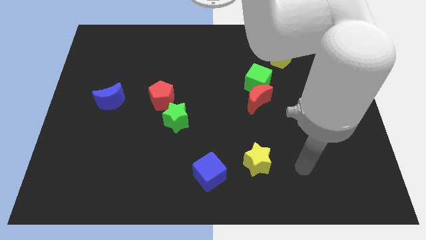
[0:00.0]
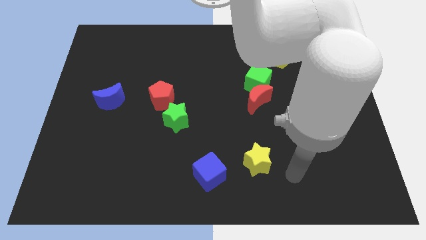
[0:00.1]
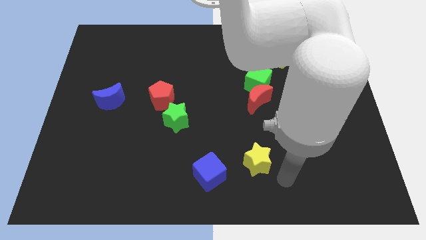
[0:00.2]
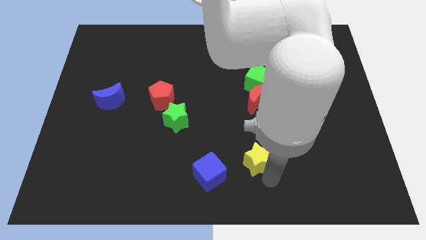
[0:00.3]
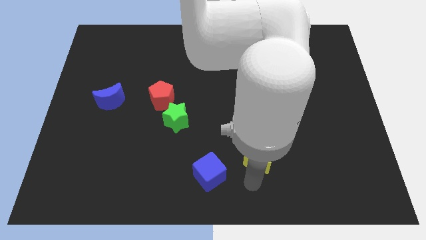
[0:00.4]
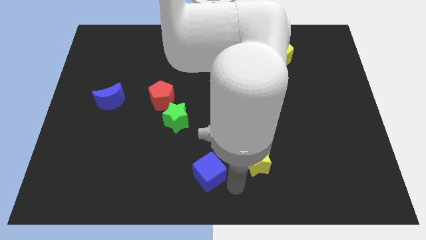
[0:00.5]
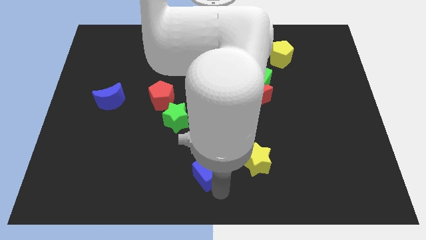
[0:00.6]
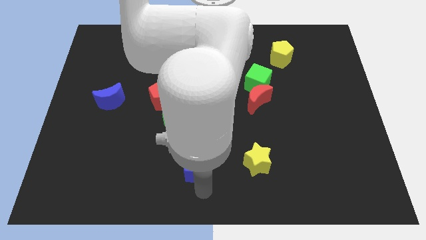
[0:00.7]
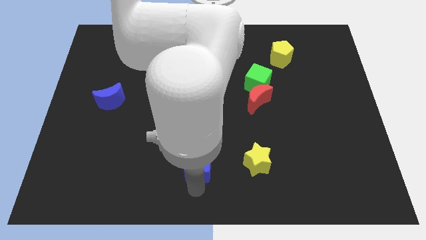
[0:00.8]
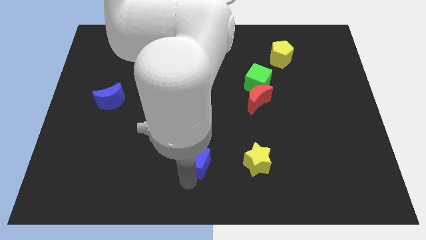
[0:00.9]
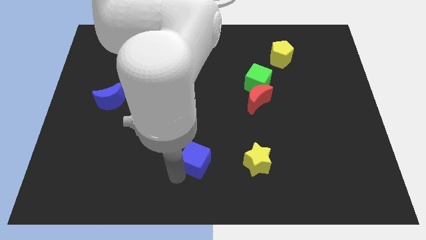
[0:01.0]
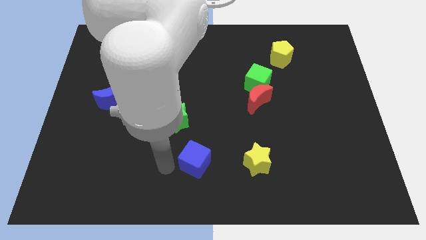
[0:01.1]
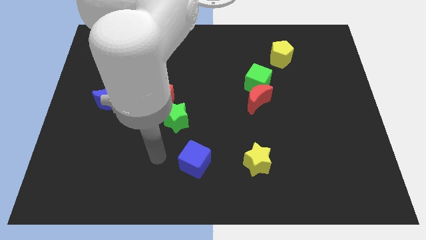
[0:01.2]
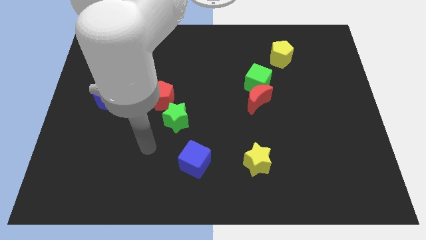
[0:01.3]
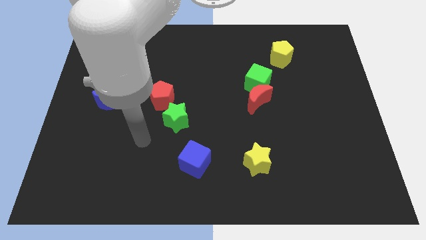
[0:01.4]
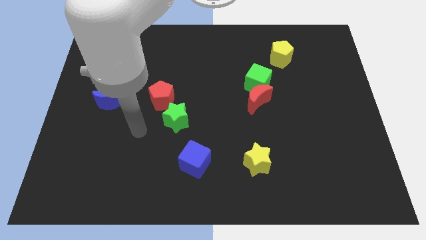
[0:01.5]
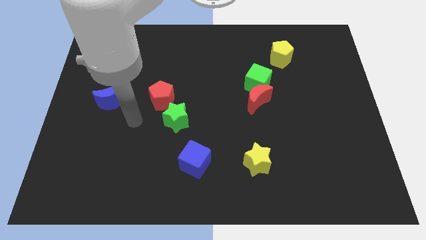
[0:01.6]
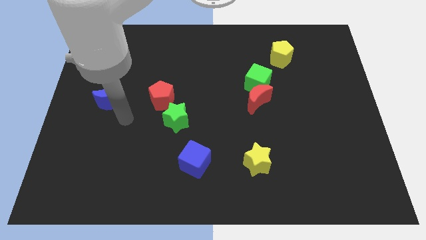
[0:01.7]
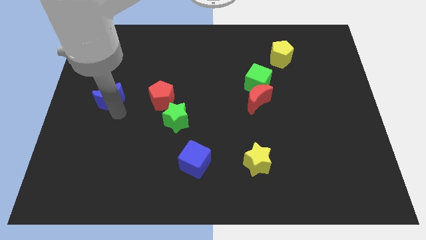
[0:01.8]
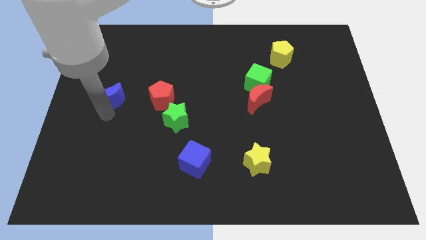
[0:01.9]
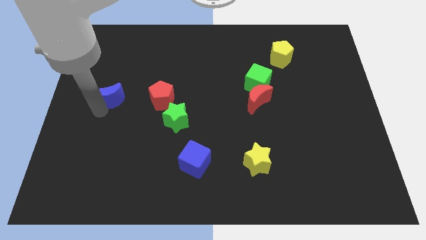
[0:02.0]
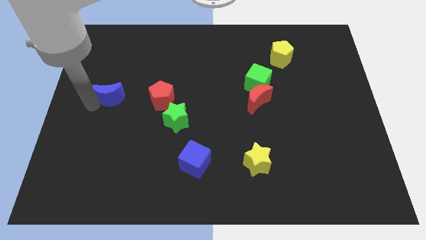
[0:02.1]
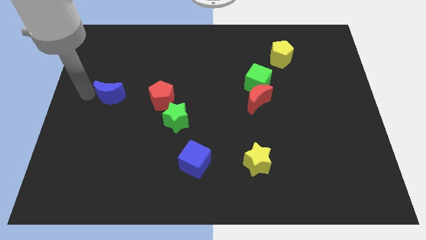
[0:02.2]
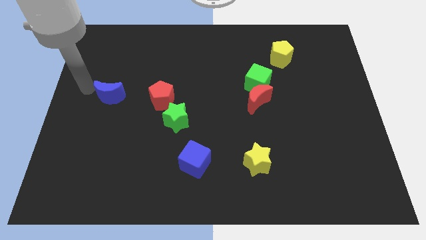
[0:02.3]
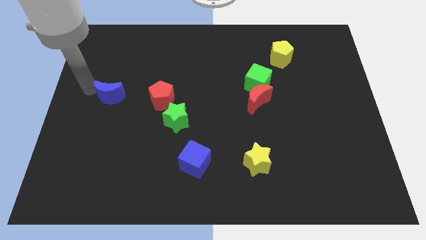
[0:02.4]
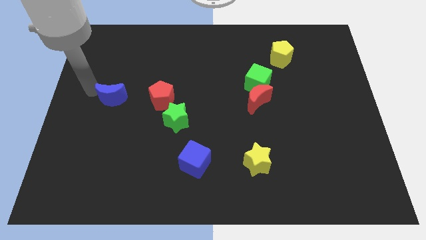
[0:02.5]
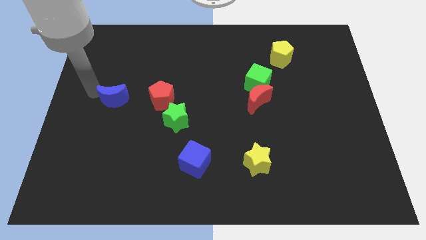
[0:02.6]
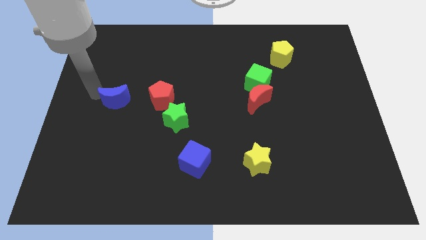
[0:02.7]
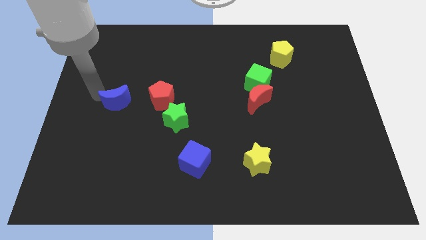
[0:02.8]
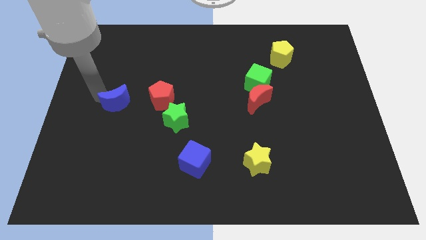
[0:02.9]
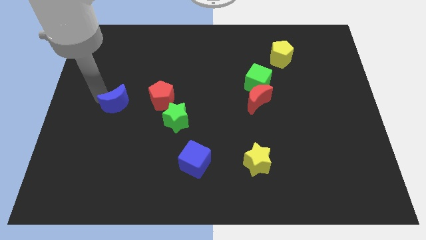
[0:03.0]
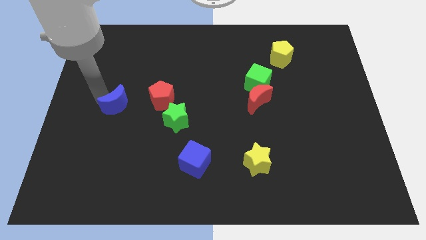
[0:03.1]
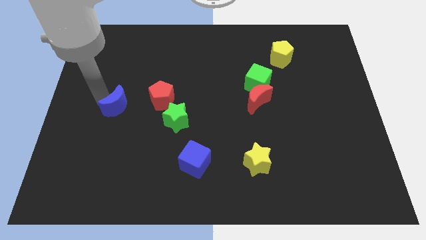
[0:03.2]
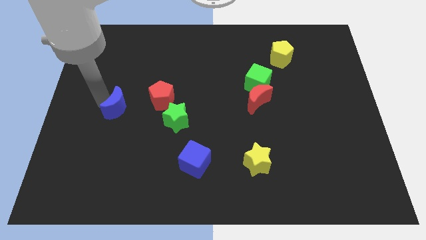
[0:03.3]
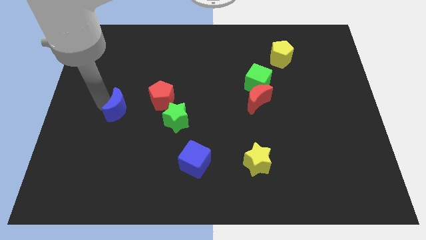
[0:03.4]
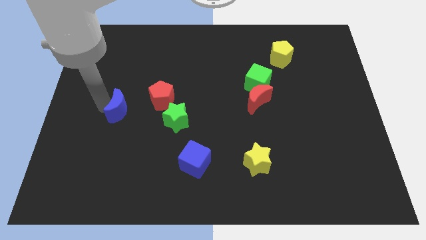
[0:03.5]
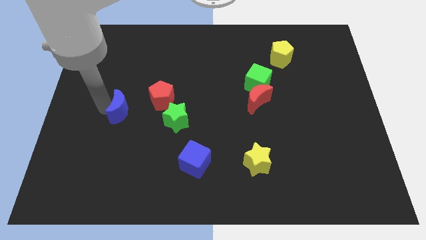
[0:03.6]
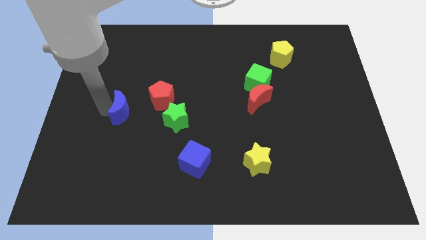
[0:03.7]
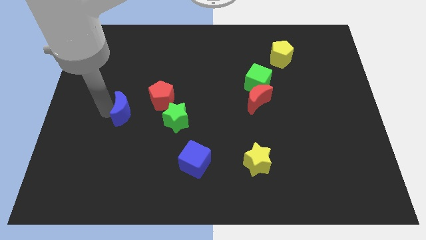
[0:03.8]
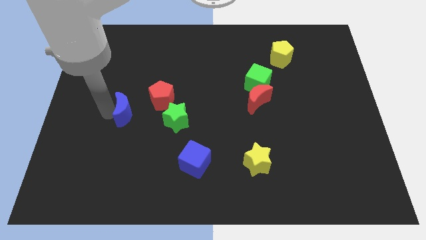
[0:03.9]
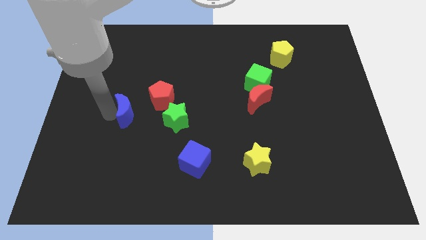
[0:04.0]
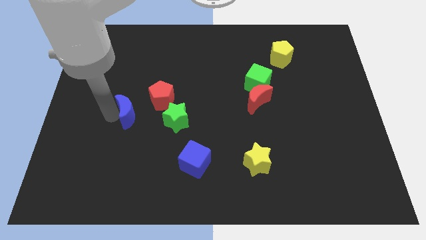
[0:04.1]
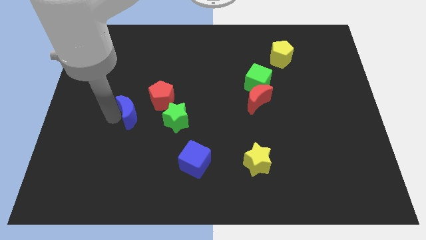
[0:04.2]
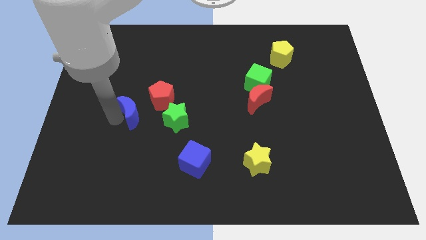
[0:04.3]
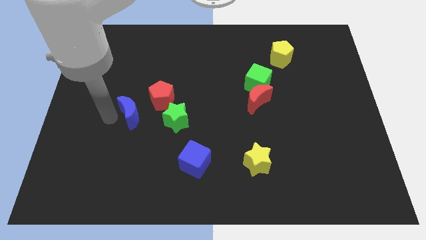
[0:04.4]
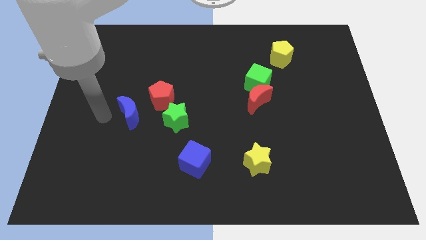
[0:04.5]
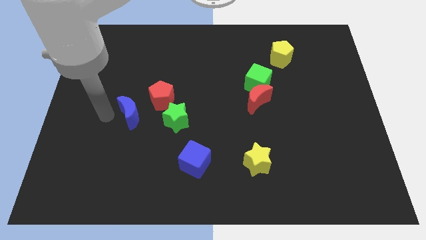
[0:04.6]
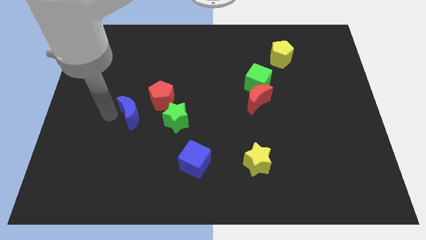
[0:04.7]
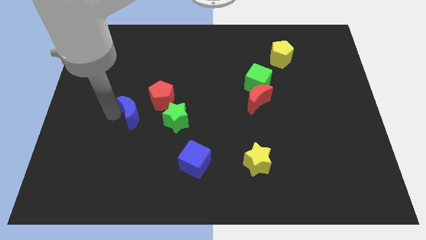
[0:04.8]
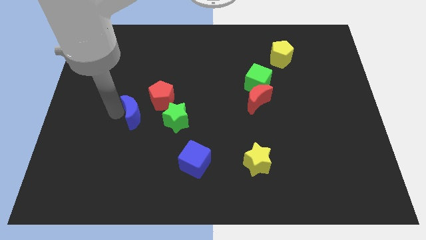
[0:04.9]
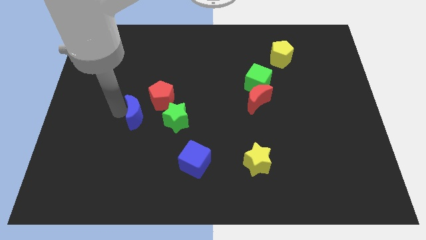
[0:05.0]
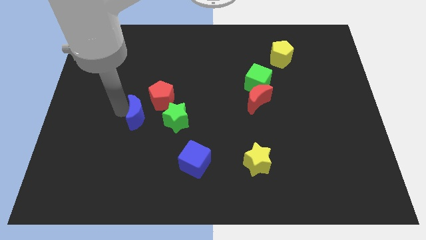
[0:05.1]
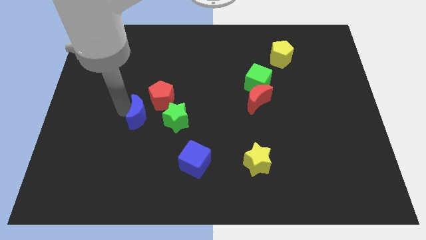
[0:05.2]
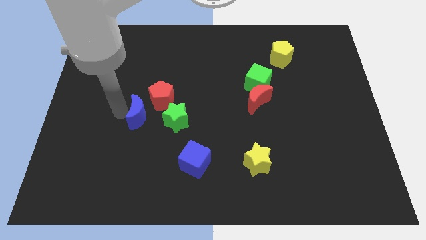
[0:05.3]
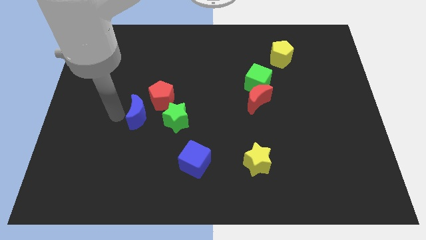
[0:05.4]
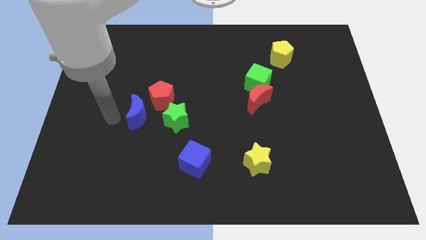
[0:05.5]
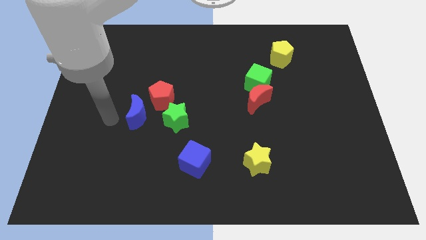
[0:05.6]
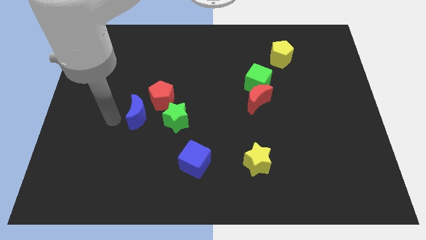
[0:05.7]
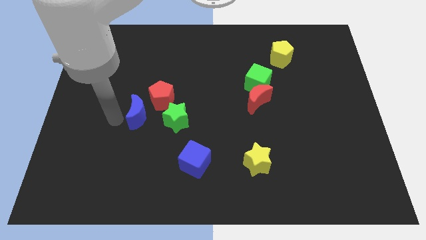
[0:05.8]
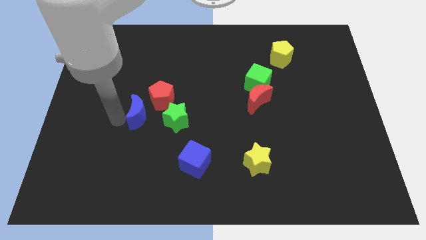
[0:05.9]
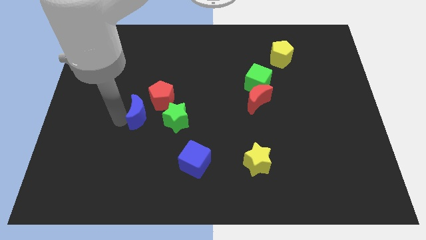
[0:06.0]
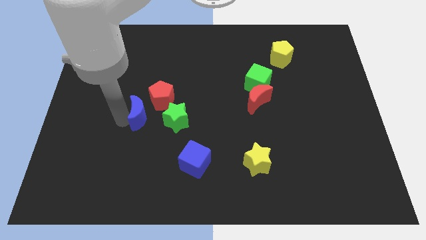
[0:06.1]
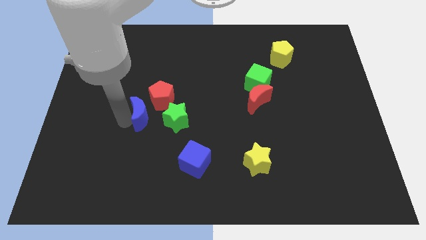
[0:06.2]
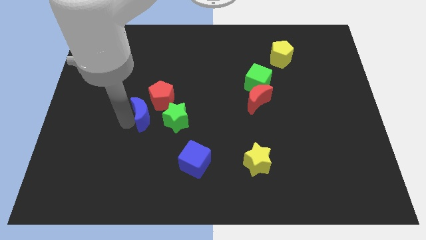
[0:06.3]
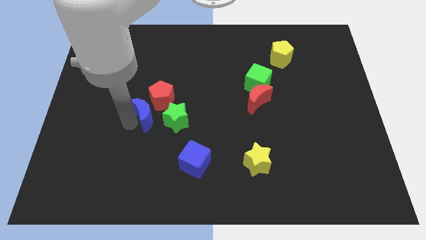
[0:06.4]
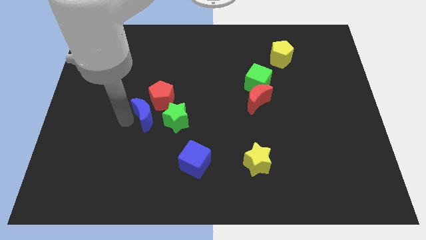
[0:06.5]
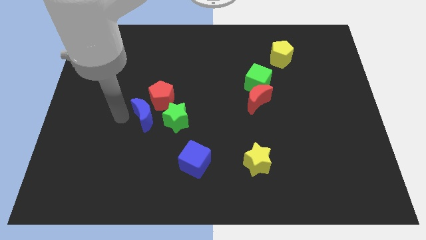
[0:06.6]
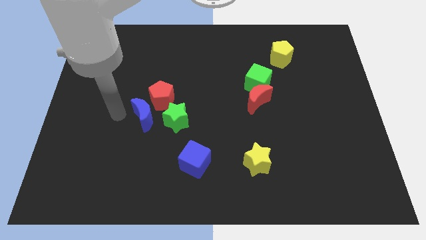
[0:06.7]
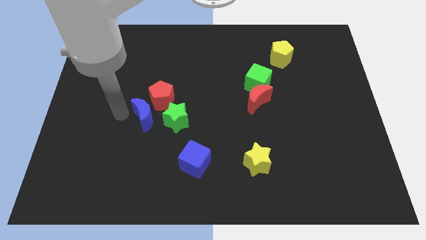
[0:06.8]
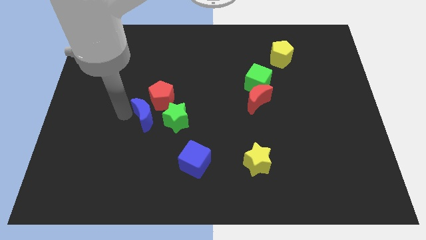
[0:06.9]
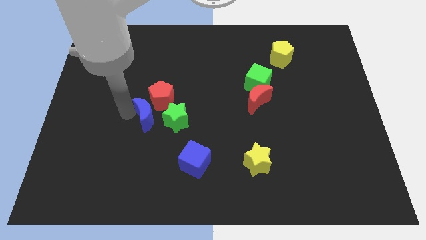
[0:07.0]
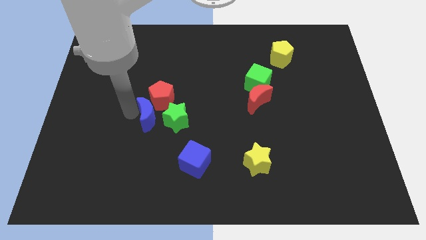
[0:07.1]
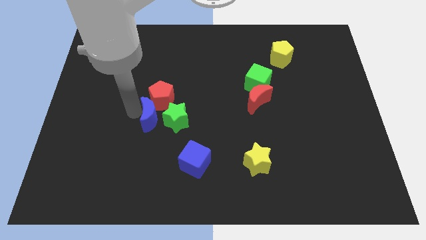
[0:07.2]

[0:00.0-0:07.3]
slide the blue moon to the green star
